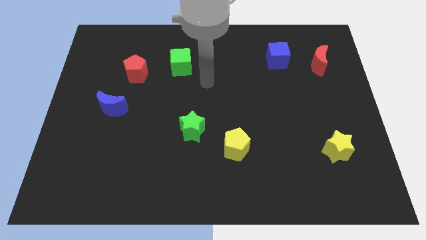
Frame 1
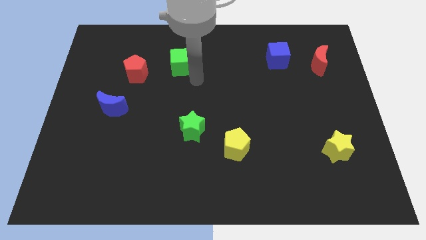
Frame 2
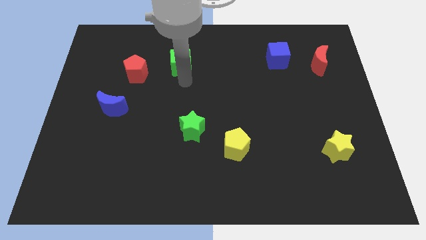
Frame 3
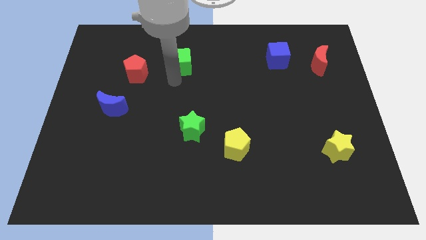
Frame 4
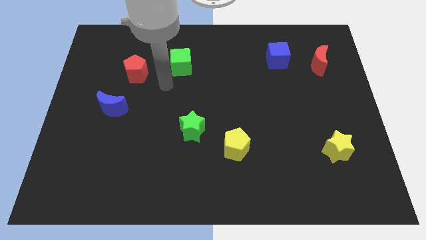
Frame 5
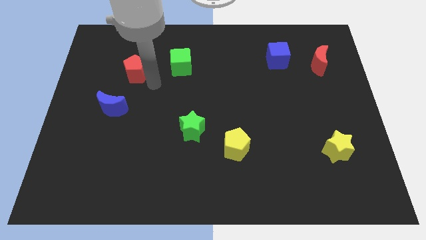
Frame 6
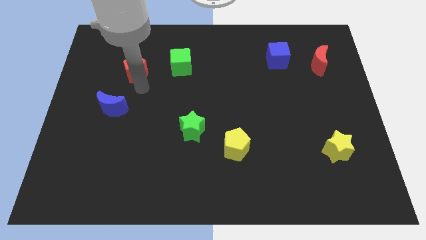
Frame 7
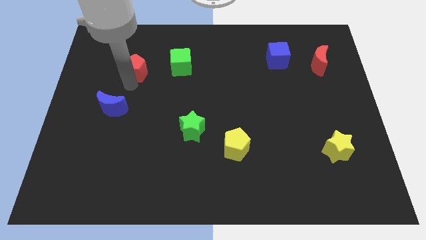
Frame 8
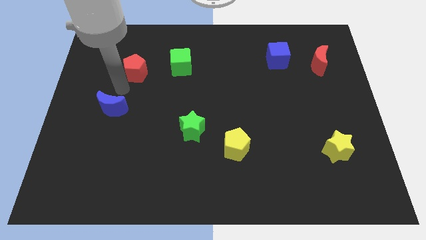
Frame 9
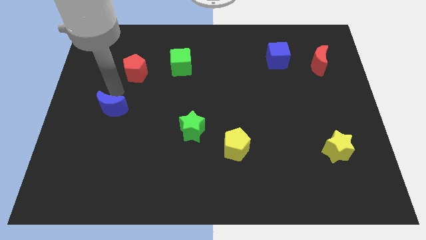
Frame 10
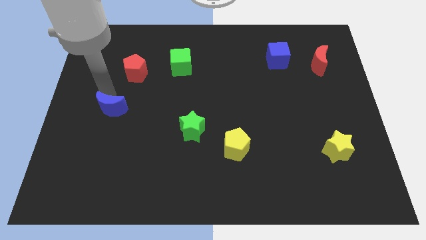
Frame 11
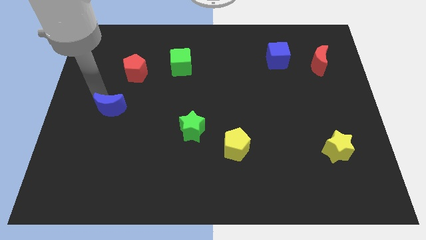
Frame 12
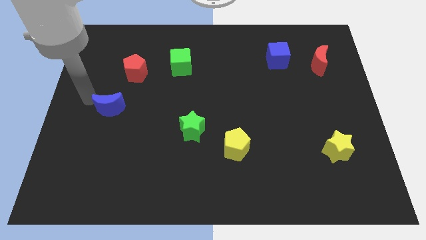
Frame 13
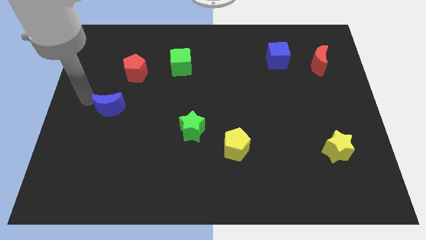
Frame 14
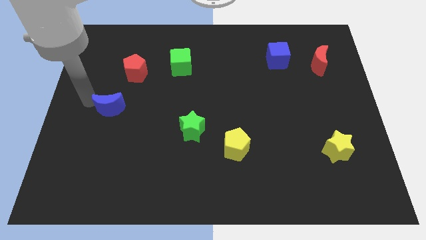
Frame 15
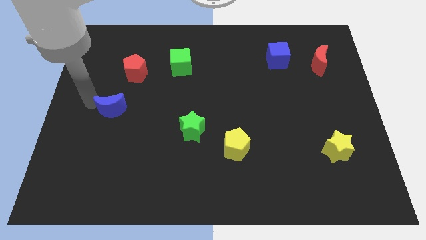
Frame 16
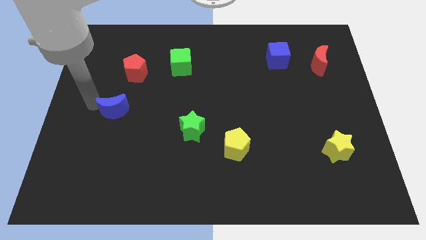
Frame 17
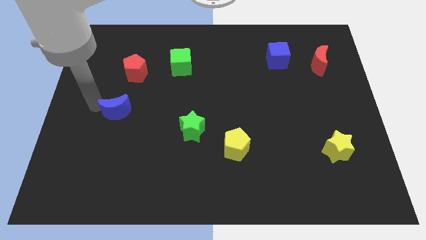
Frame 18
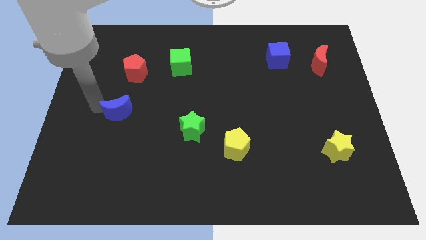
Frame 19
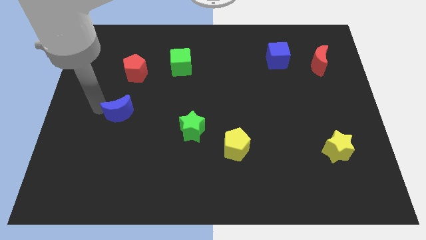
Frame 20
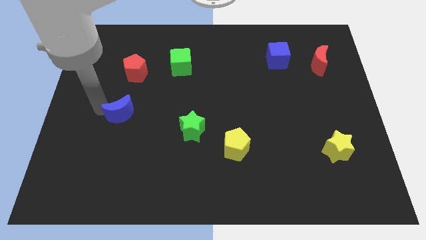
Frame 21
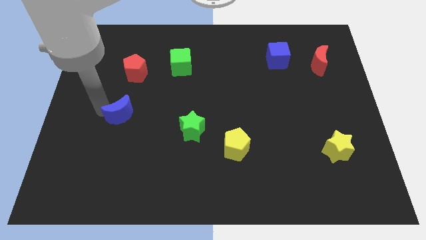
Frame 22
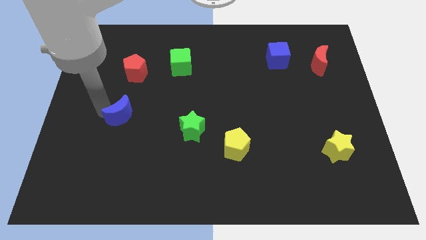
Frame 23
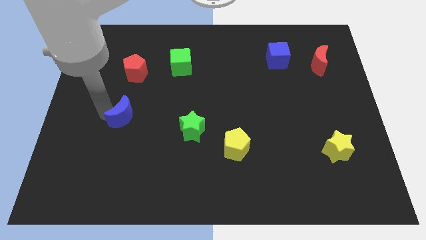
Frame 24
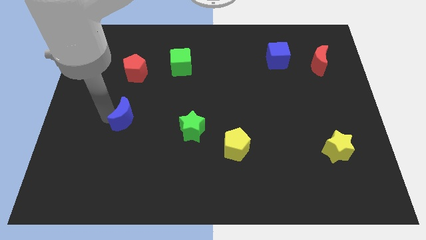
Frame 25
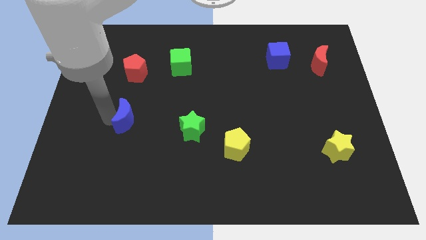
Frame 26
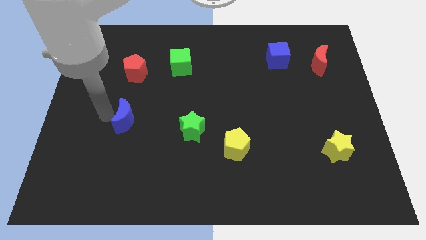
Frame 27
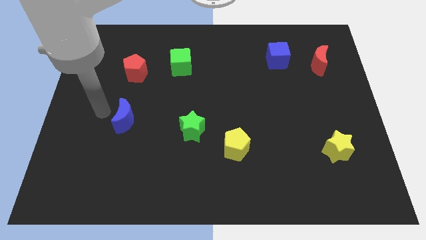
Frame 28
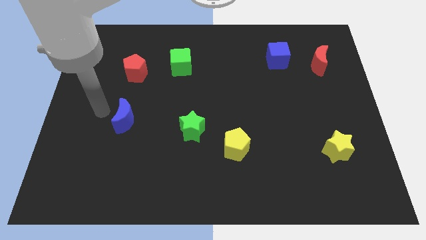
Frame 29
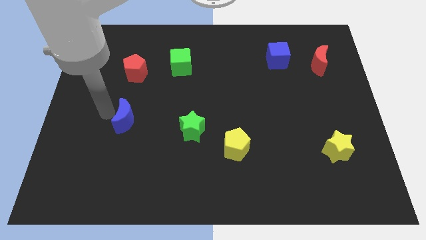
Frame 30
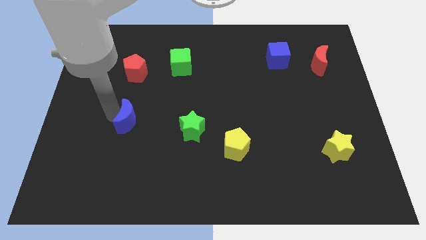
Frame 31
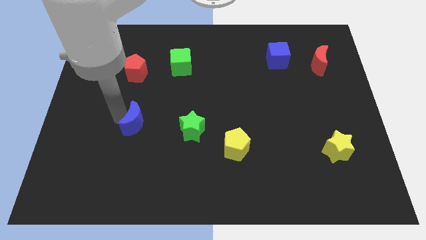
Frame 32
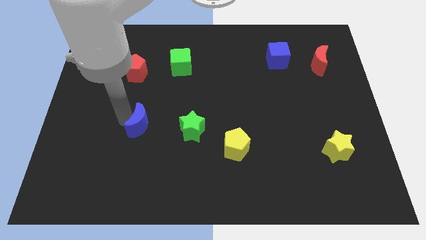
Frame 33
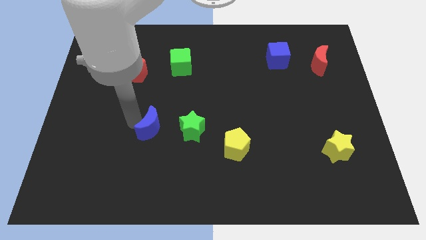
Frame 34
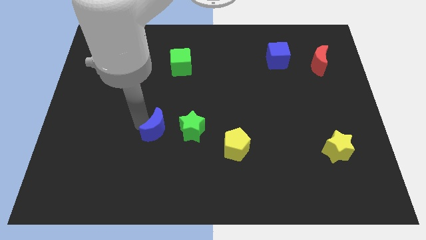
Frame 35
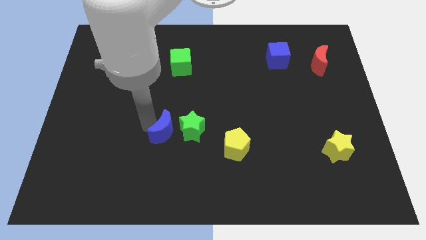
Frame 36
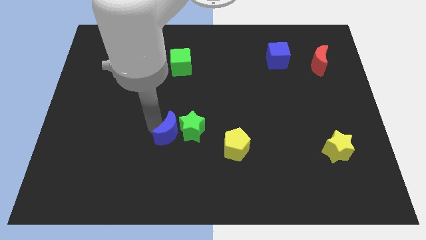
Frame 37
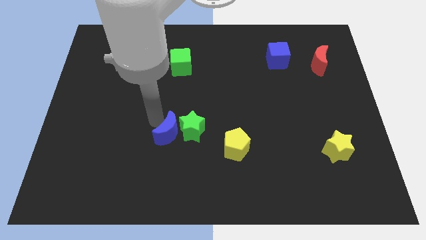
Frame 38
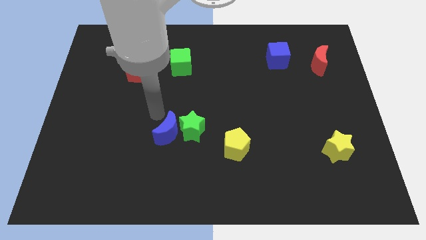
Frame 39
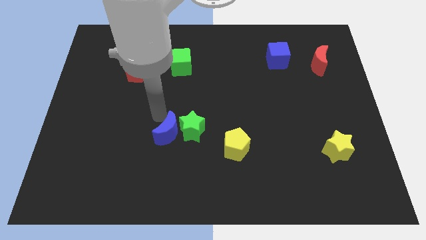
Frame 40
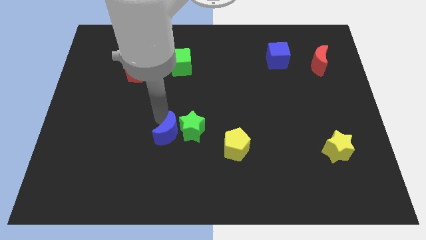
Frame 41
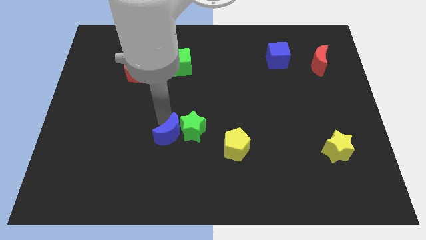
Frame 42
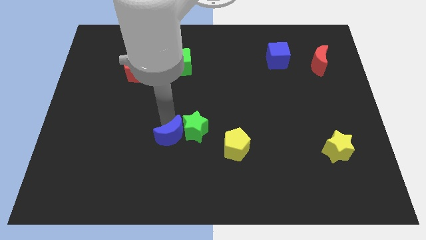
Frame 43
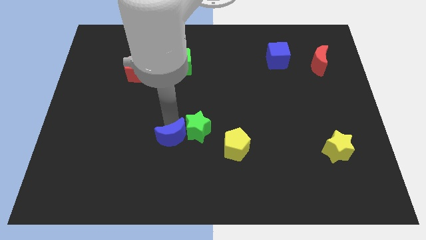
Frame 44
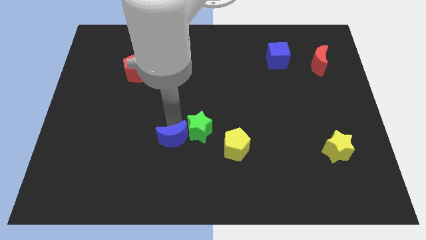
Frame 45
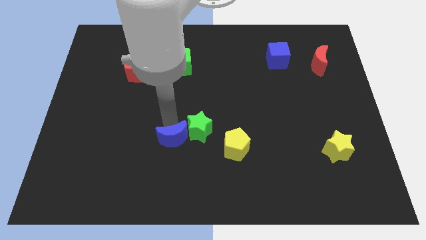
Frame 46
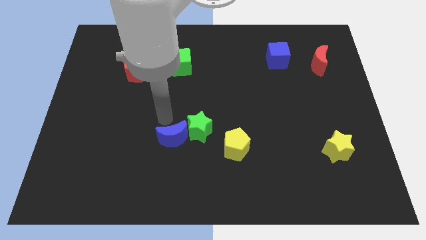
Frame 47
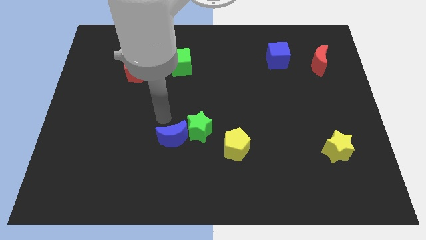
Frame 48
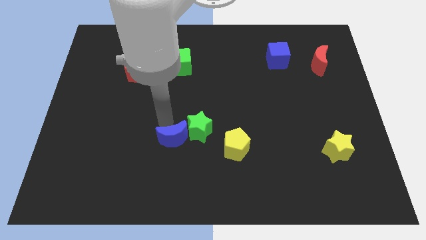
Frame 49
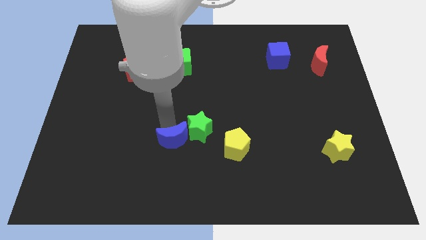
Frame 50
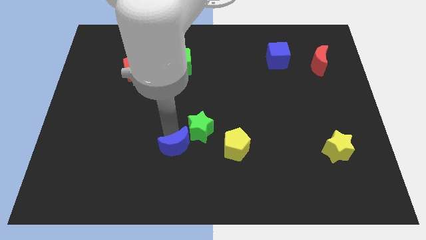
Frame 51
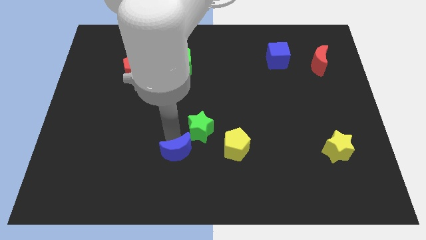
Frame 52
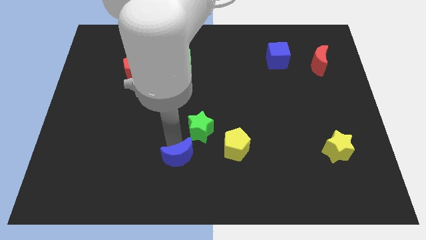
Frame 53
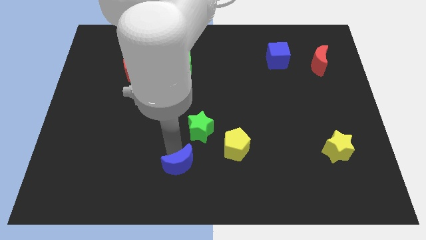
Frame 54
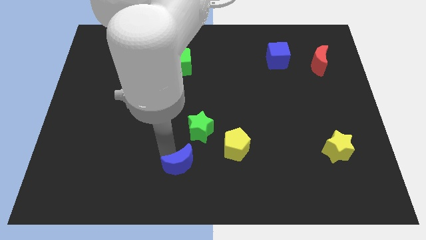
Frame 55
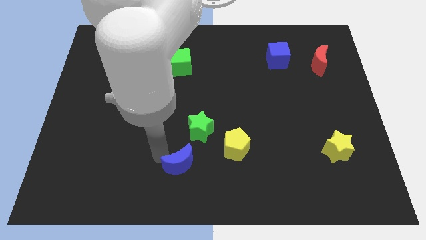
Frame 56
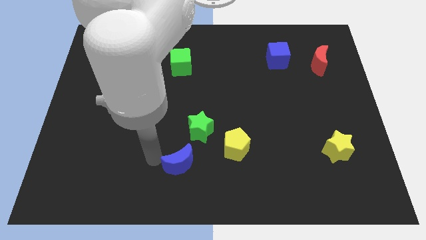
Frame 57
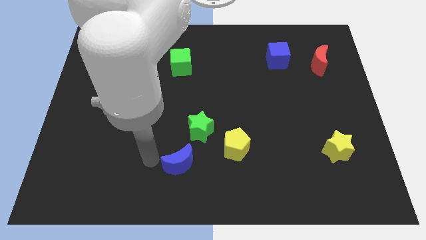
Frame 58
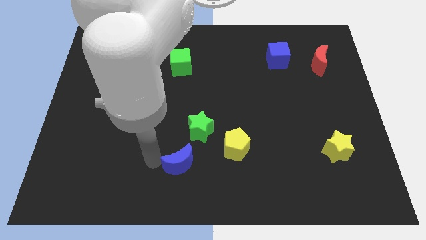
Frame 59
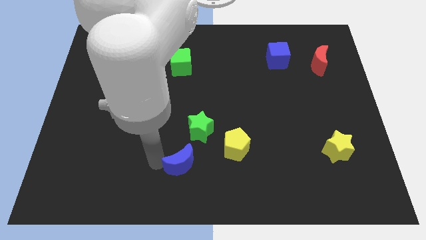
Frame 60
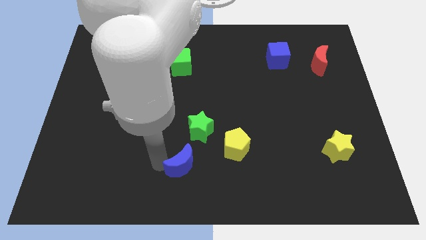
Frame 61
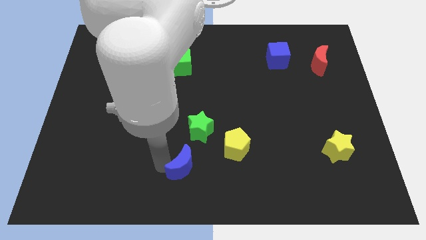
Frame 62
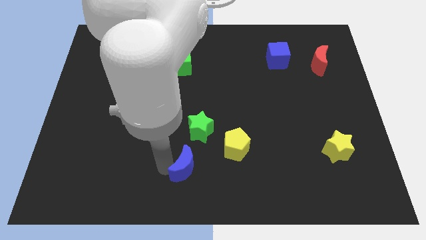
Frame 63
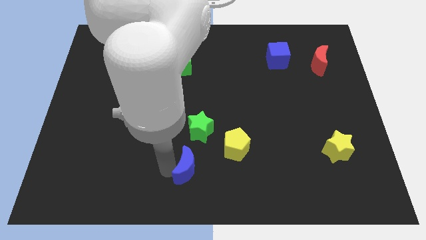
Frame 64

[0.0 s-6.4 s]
move the blue moon to the bottom left side of the yellow pentagon
